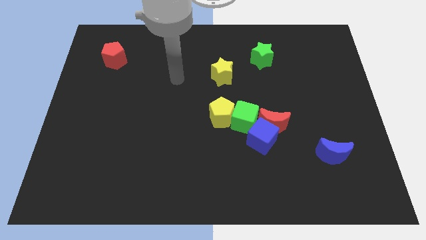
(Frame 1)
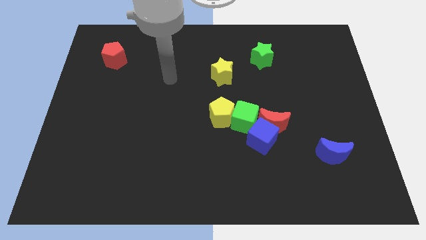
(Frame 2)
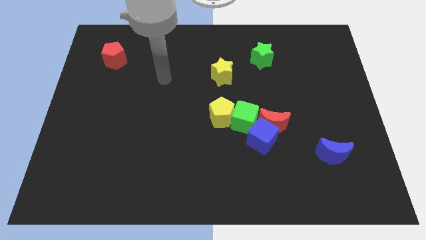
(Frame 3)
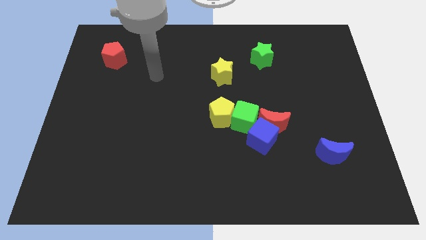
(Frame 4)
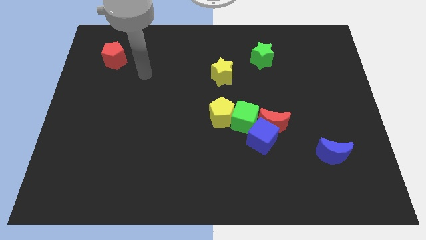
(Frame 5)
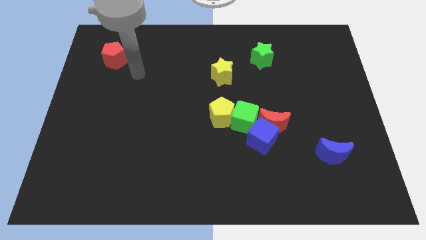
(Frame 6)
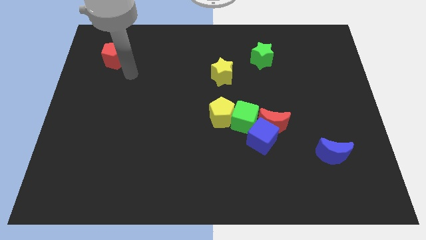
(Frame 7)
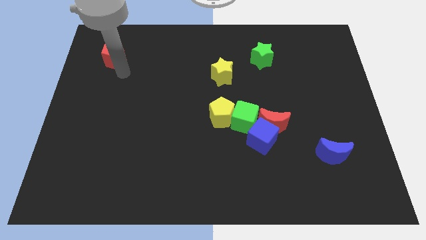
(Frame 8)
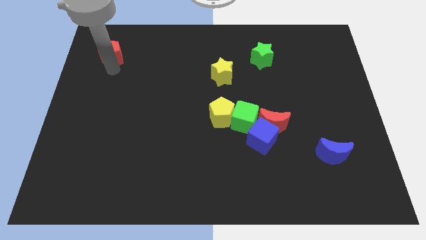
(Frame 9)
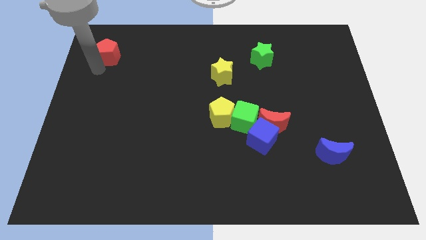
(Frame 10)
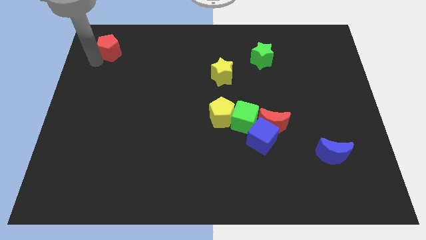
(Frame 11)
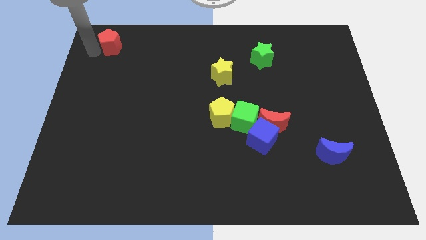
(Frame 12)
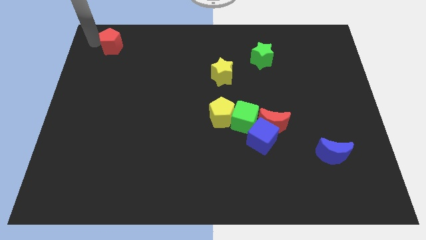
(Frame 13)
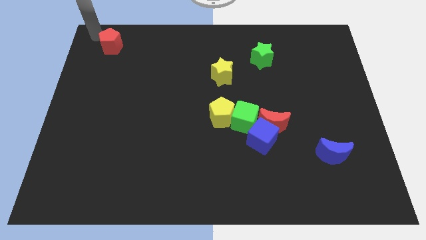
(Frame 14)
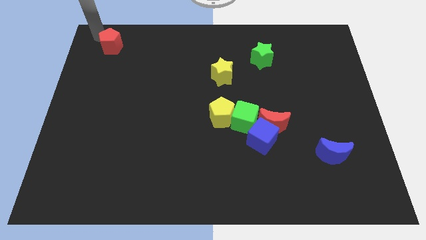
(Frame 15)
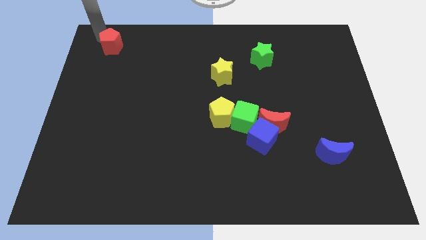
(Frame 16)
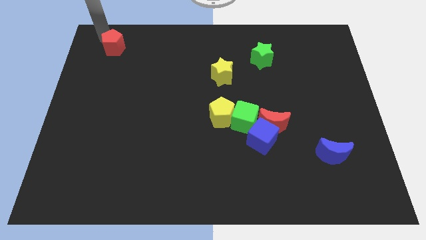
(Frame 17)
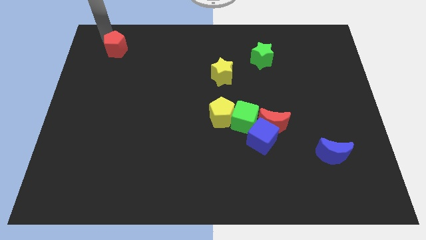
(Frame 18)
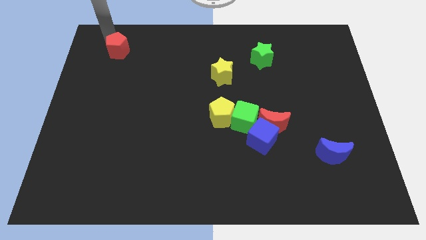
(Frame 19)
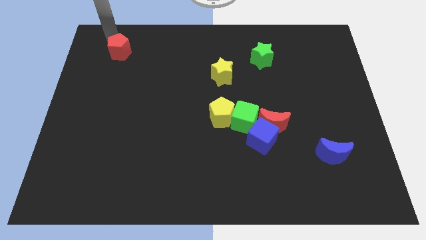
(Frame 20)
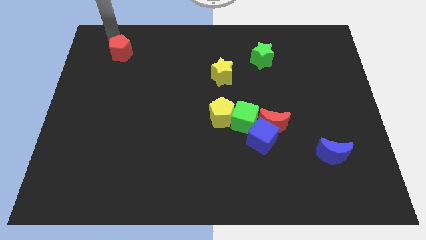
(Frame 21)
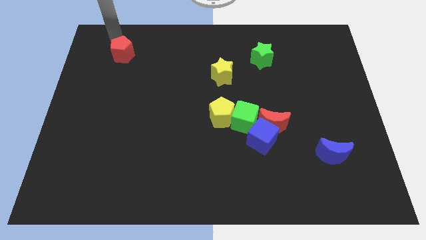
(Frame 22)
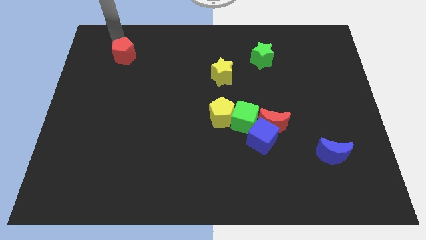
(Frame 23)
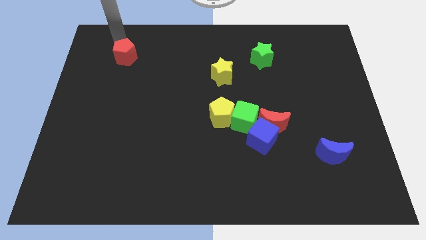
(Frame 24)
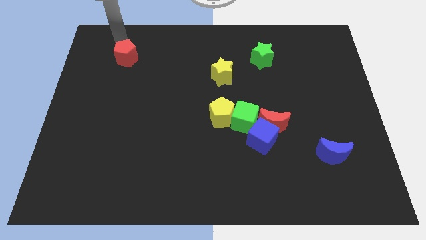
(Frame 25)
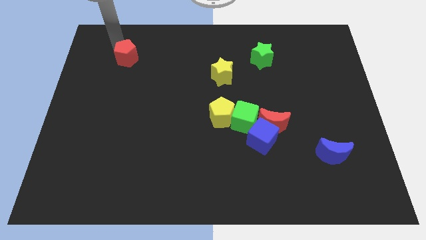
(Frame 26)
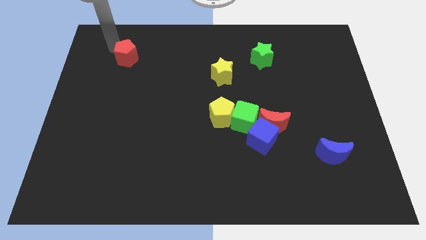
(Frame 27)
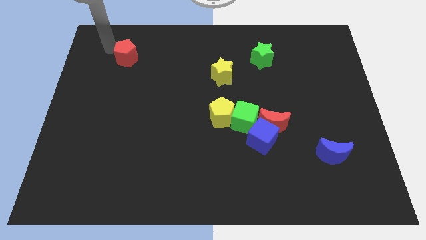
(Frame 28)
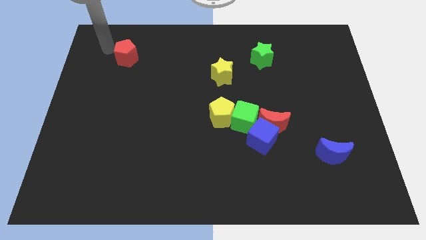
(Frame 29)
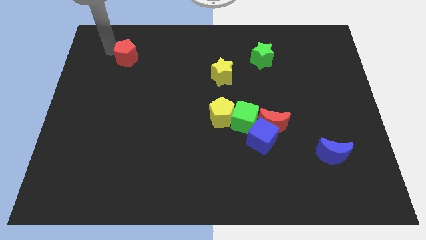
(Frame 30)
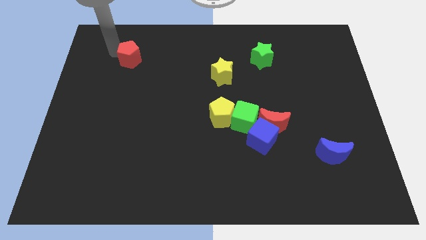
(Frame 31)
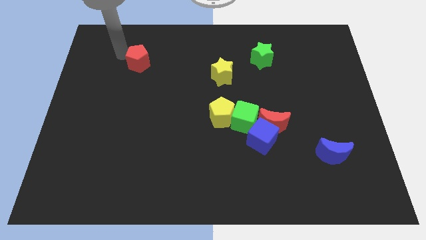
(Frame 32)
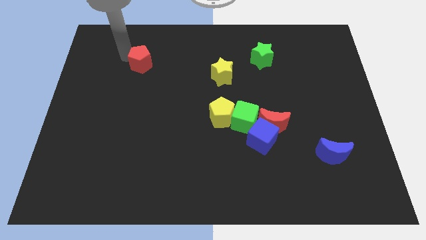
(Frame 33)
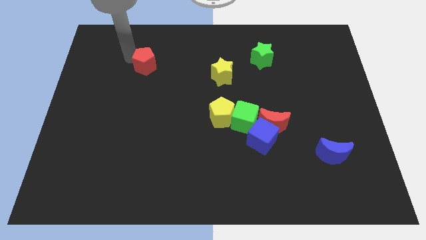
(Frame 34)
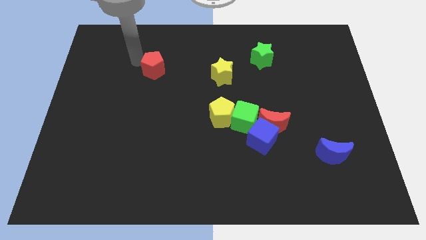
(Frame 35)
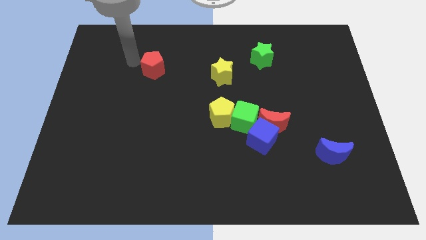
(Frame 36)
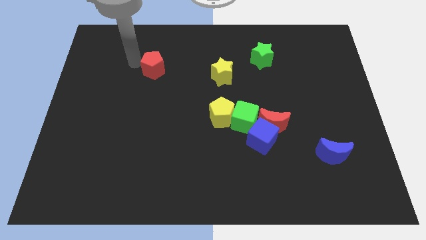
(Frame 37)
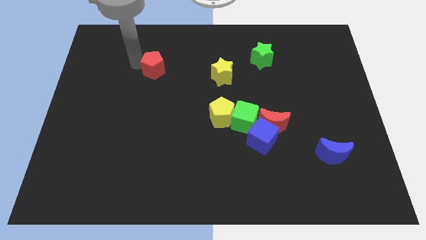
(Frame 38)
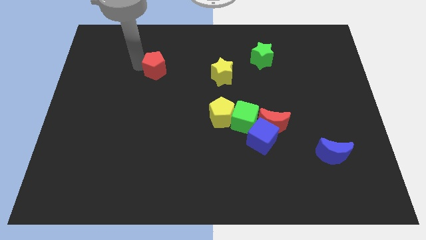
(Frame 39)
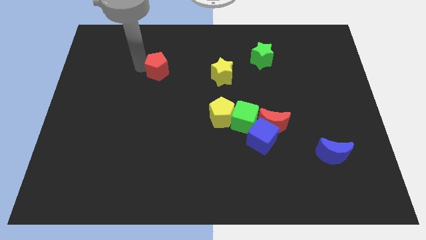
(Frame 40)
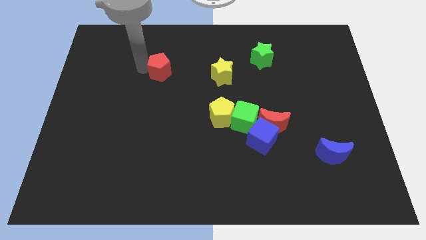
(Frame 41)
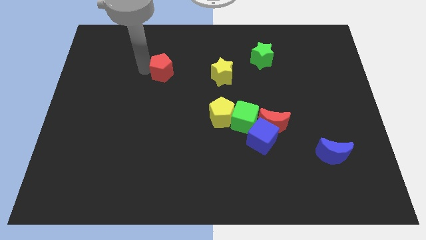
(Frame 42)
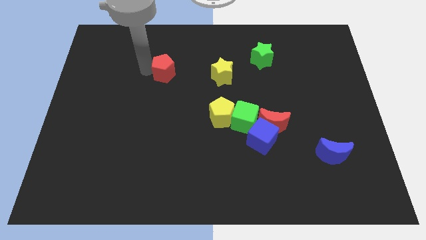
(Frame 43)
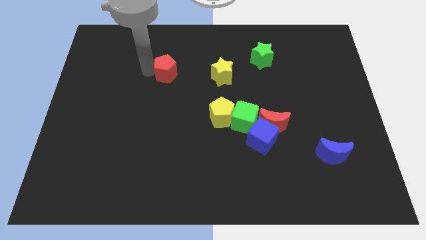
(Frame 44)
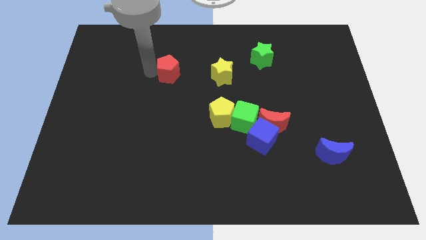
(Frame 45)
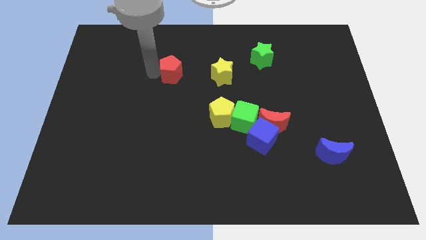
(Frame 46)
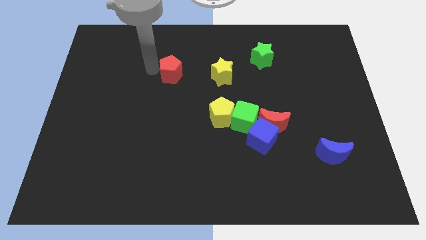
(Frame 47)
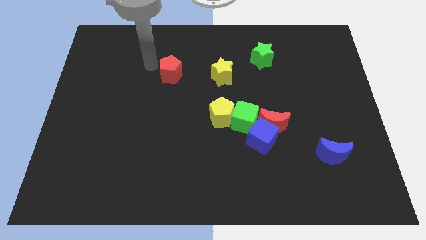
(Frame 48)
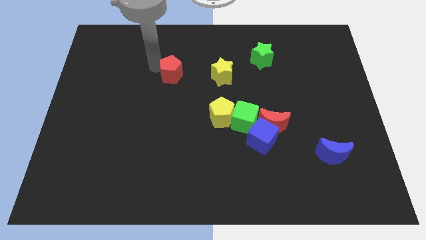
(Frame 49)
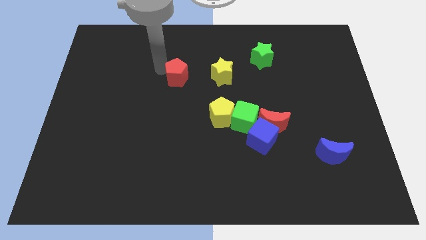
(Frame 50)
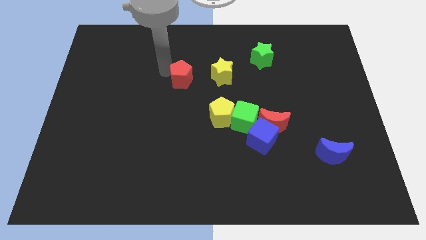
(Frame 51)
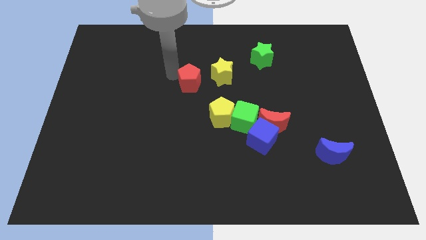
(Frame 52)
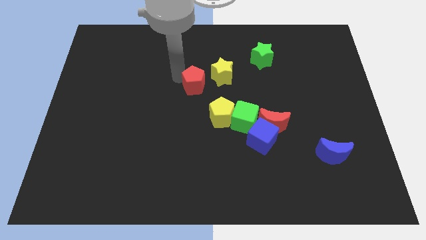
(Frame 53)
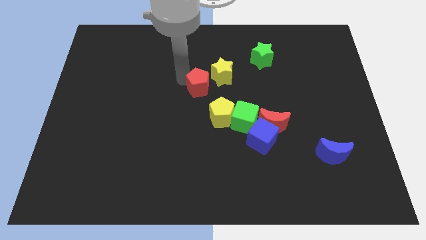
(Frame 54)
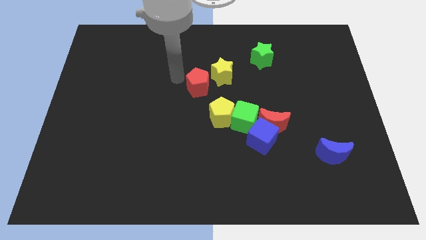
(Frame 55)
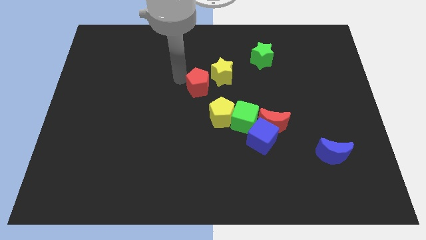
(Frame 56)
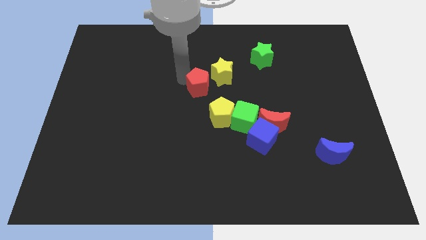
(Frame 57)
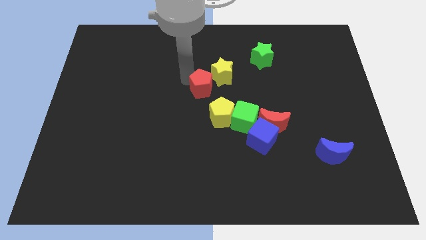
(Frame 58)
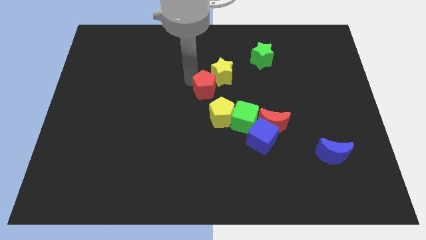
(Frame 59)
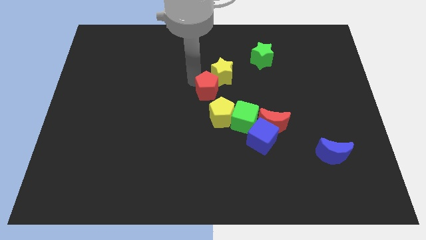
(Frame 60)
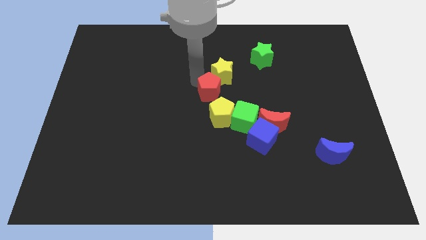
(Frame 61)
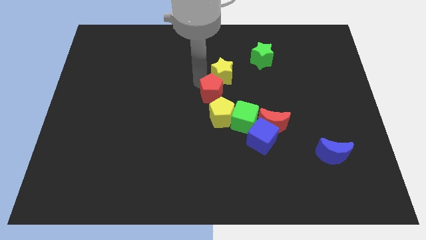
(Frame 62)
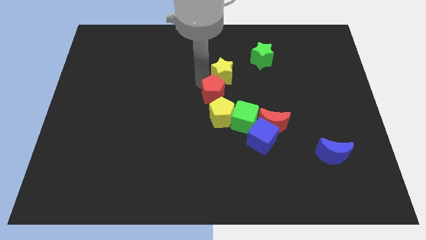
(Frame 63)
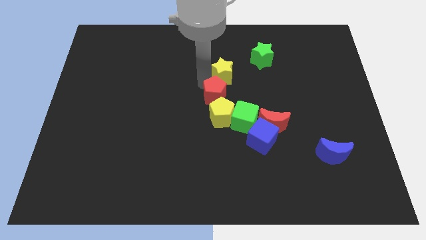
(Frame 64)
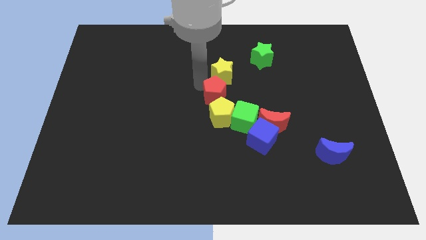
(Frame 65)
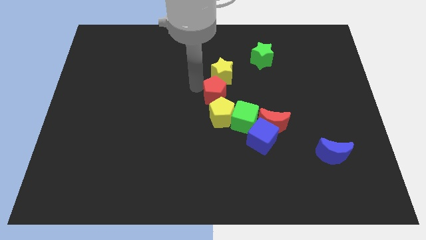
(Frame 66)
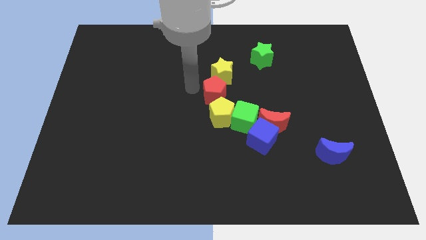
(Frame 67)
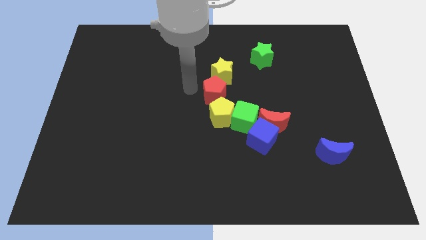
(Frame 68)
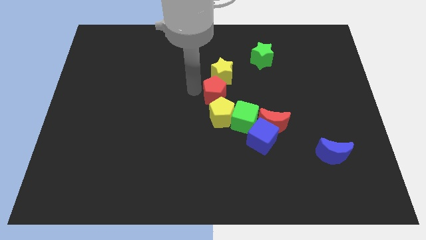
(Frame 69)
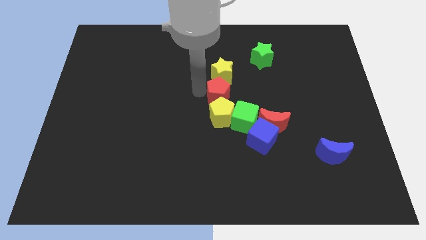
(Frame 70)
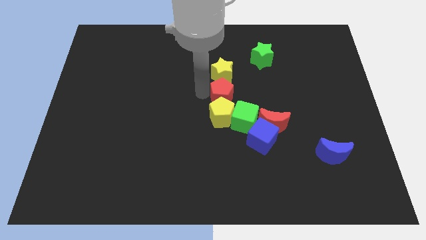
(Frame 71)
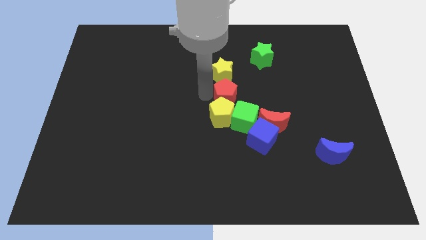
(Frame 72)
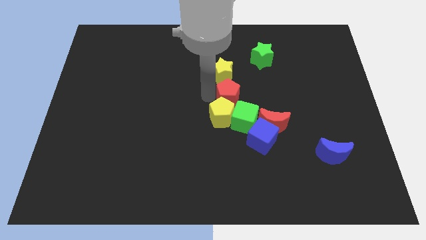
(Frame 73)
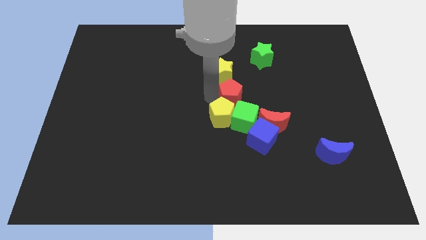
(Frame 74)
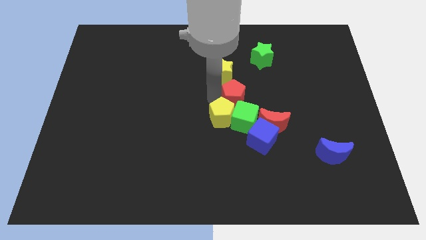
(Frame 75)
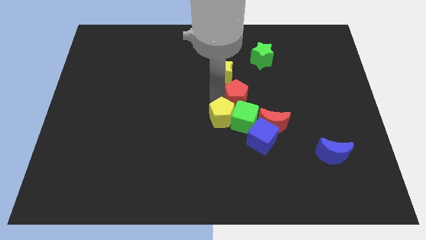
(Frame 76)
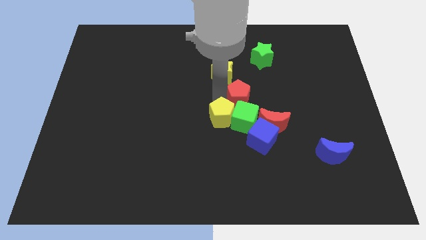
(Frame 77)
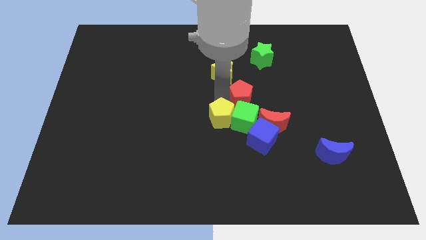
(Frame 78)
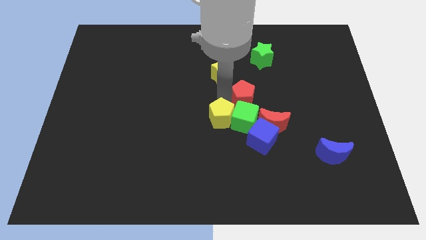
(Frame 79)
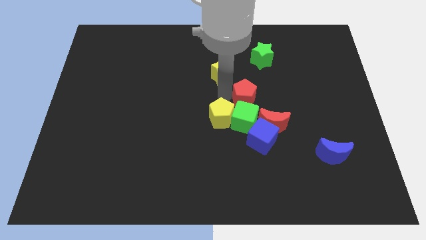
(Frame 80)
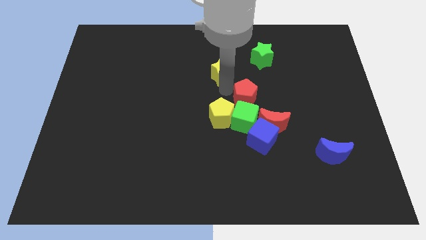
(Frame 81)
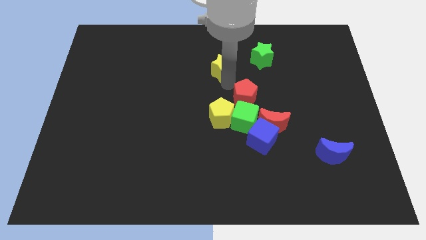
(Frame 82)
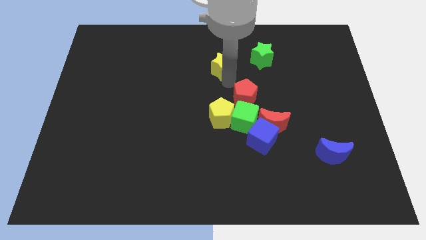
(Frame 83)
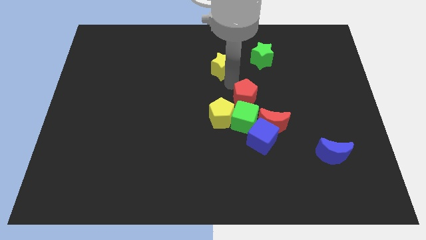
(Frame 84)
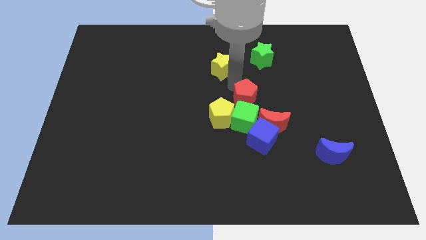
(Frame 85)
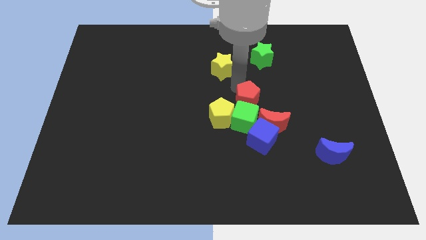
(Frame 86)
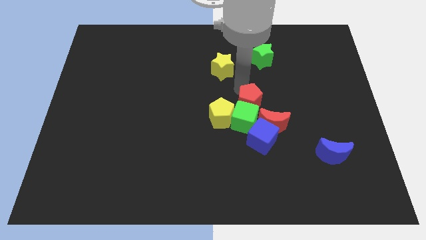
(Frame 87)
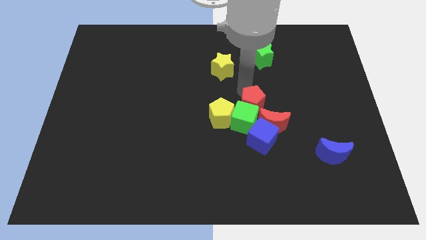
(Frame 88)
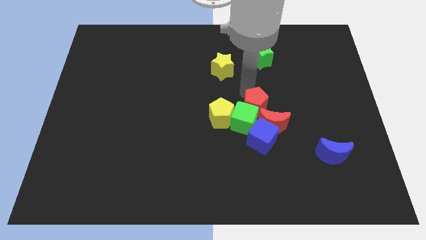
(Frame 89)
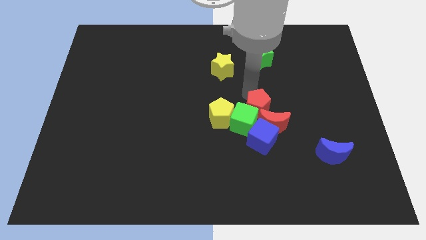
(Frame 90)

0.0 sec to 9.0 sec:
push the red pentagon next to the red moon
